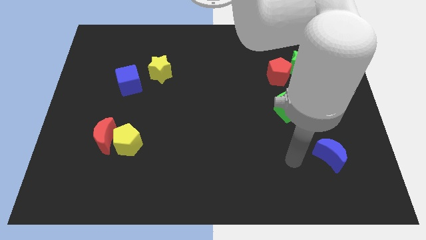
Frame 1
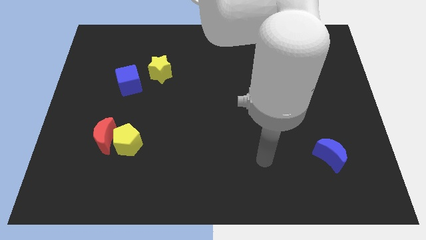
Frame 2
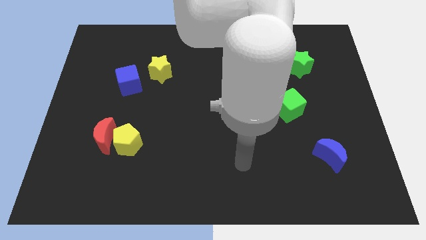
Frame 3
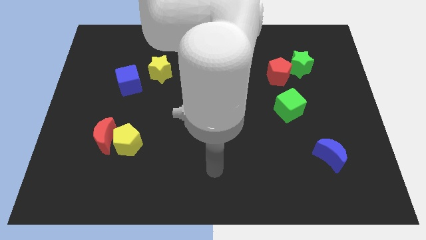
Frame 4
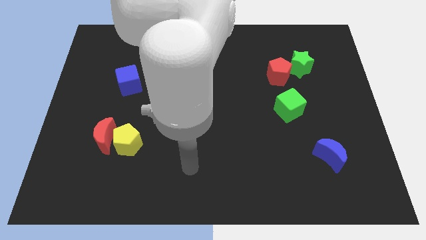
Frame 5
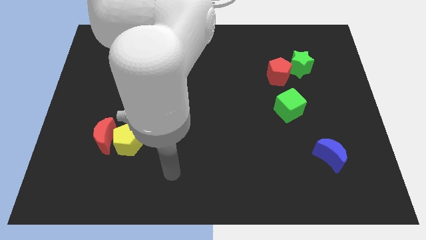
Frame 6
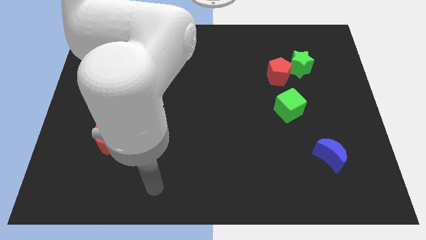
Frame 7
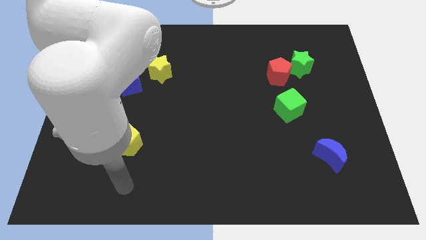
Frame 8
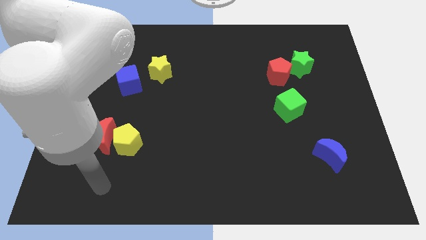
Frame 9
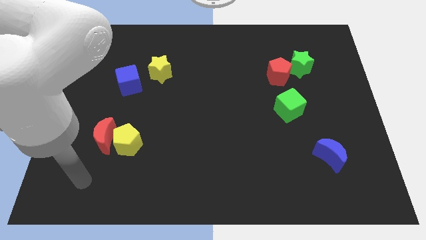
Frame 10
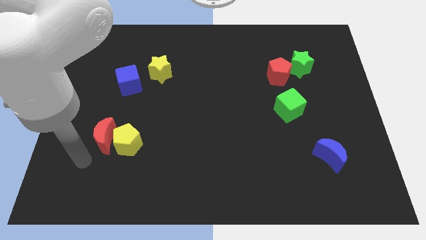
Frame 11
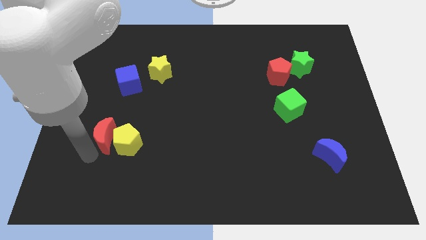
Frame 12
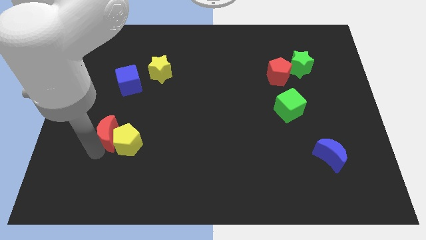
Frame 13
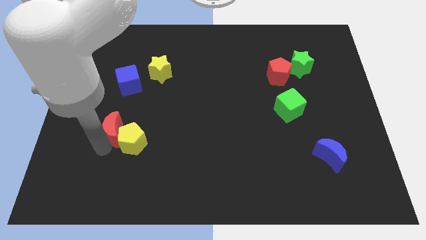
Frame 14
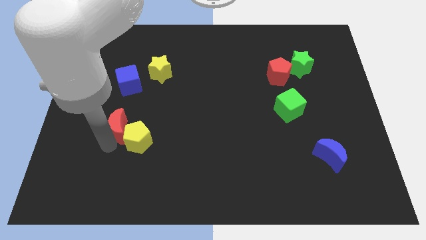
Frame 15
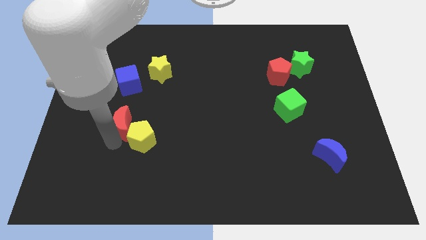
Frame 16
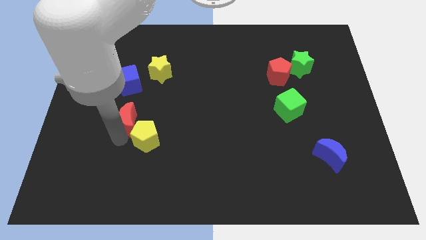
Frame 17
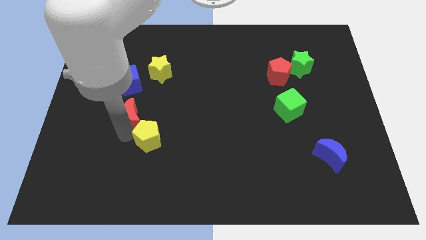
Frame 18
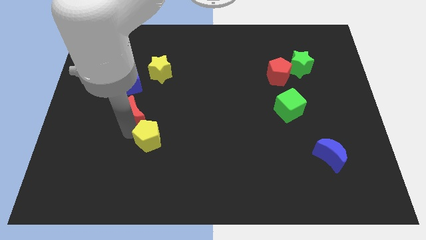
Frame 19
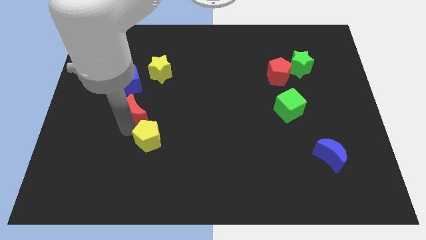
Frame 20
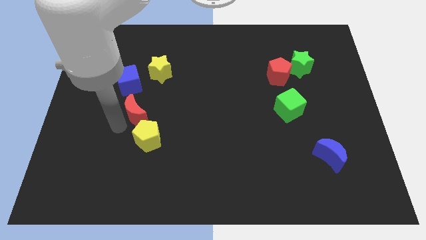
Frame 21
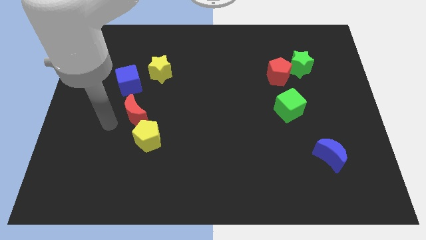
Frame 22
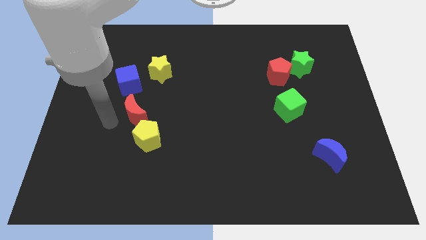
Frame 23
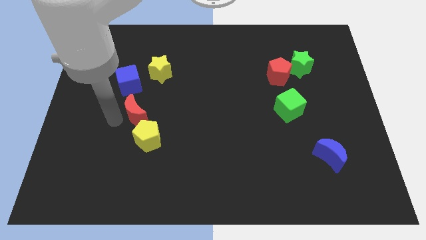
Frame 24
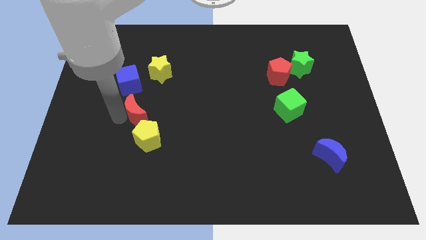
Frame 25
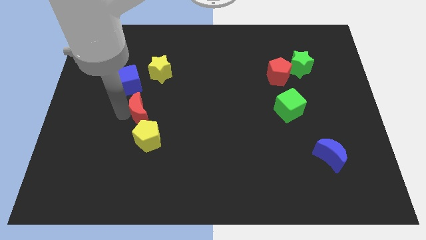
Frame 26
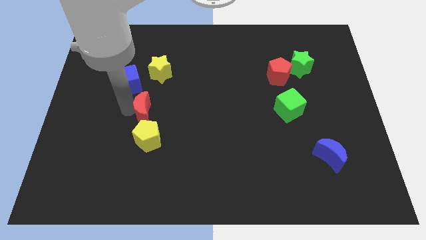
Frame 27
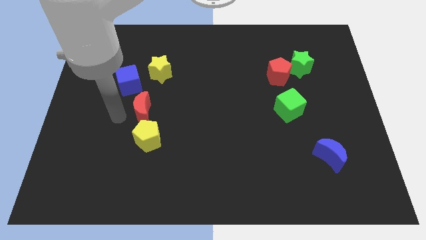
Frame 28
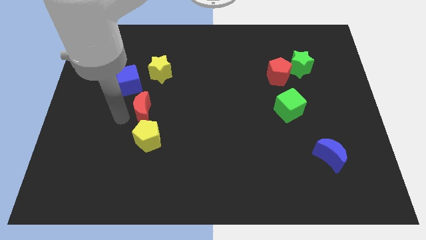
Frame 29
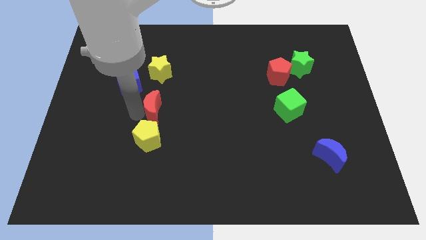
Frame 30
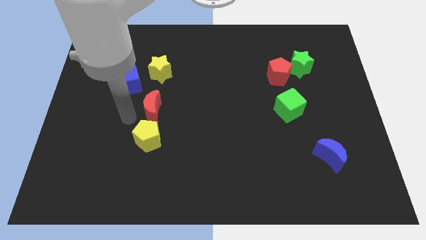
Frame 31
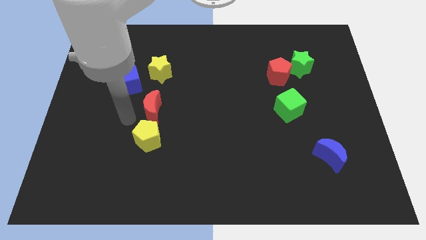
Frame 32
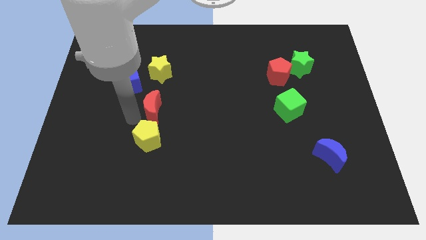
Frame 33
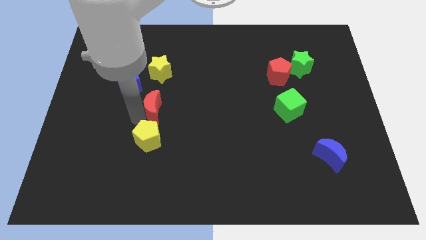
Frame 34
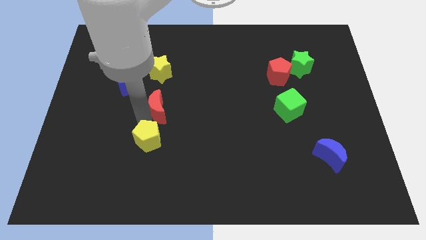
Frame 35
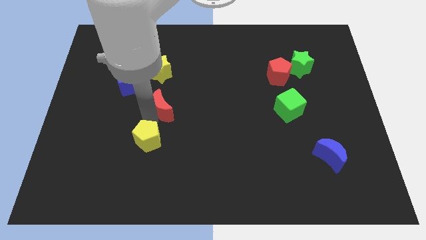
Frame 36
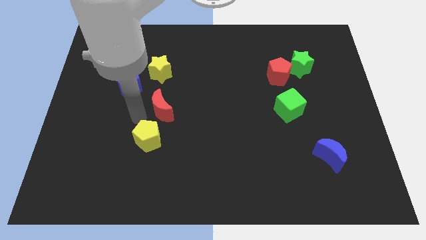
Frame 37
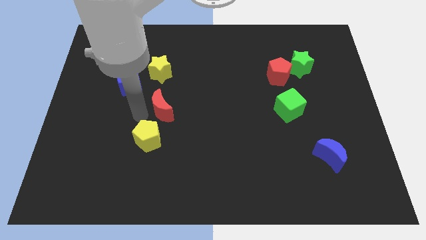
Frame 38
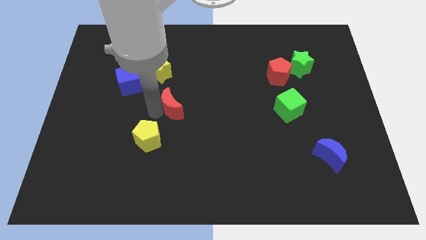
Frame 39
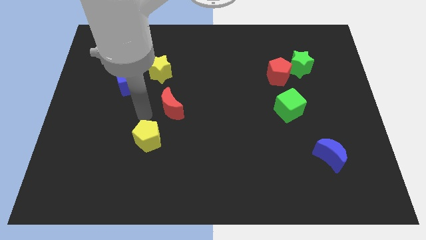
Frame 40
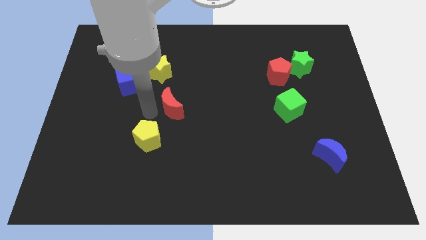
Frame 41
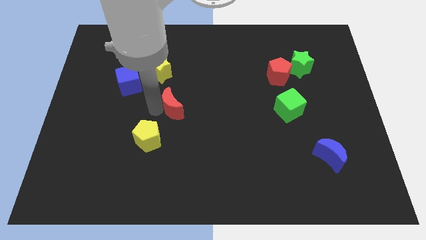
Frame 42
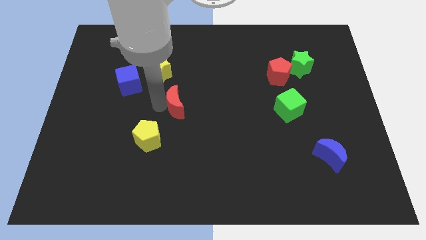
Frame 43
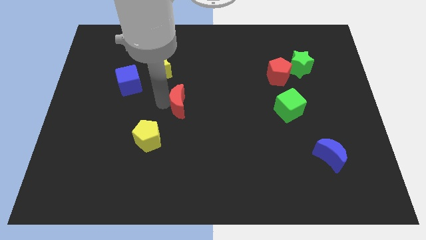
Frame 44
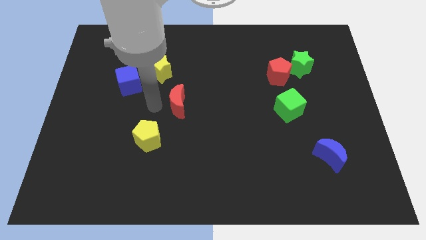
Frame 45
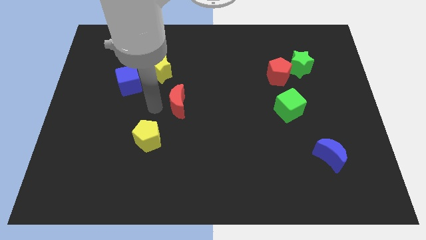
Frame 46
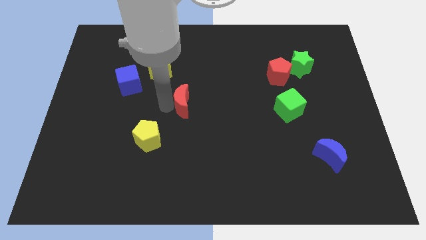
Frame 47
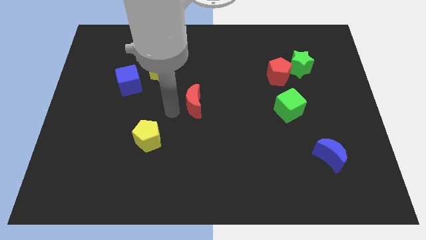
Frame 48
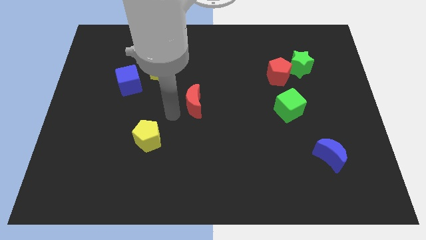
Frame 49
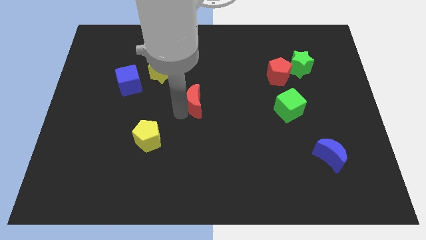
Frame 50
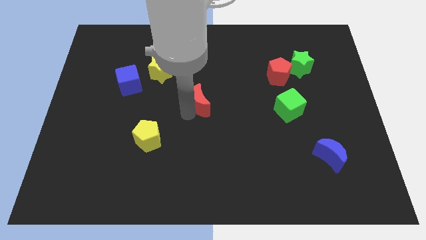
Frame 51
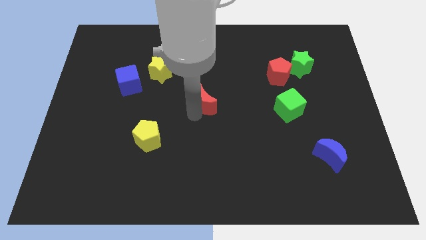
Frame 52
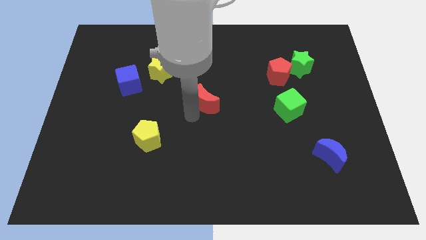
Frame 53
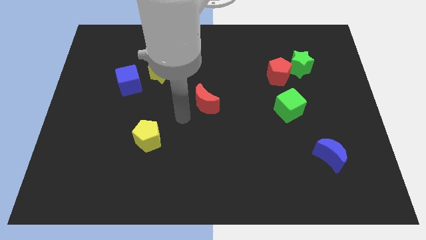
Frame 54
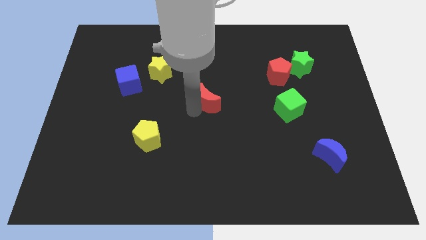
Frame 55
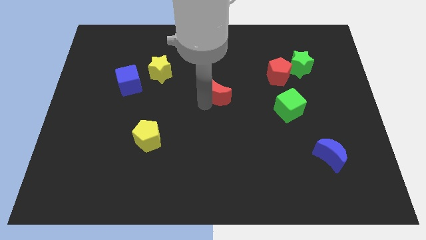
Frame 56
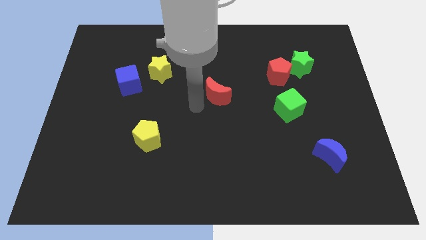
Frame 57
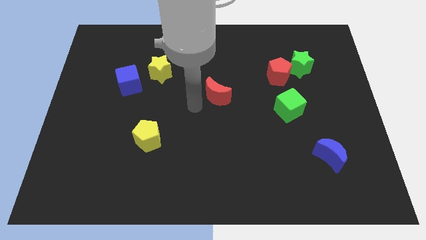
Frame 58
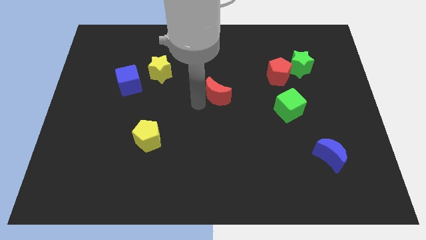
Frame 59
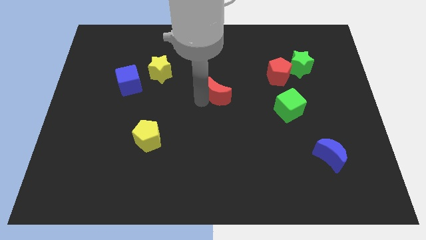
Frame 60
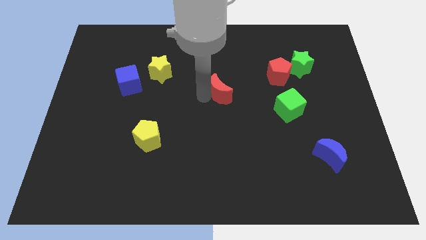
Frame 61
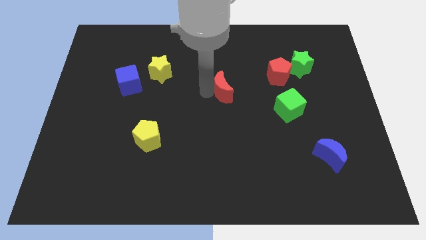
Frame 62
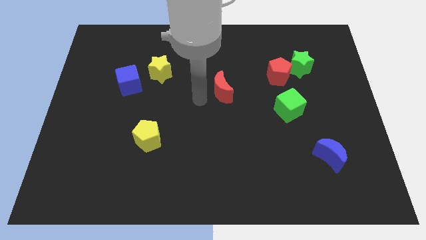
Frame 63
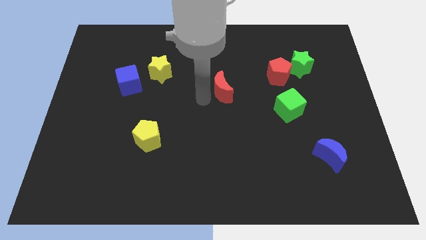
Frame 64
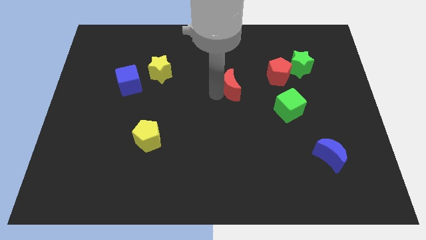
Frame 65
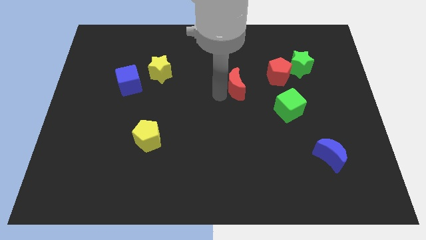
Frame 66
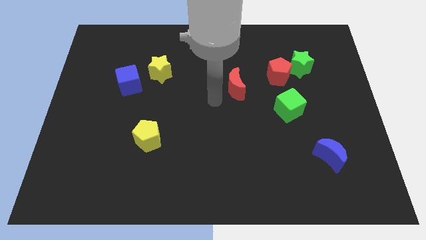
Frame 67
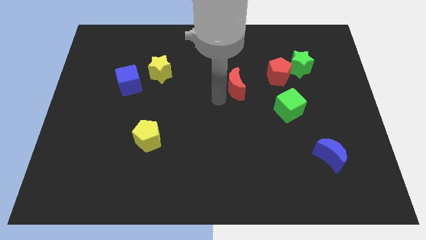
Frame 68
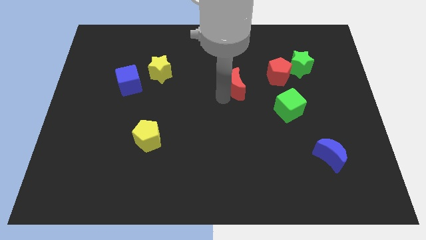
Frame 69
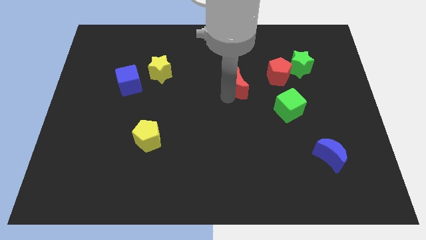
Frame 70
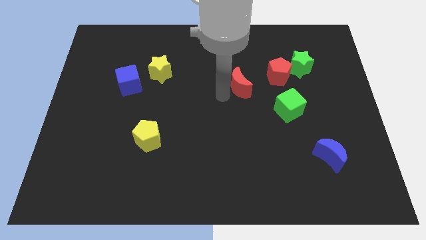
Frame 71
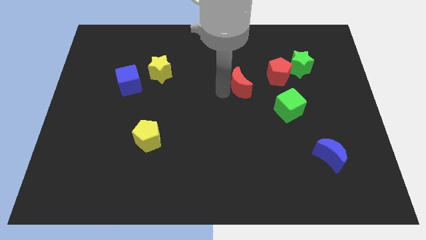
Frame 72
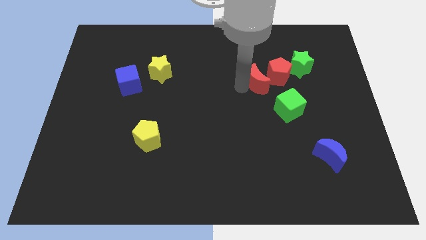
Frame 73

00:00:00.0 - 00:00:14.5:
put the red moon to the red pentagon
